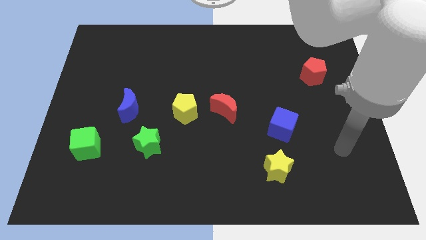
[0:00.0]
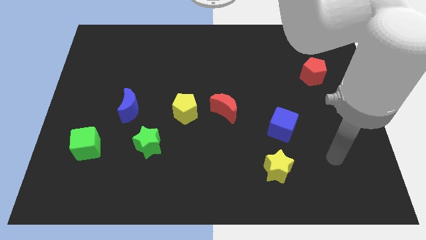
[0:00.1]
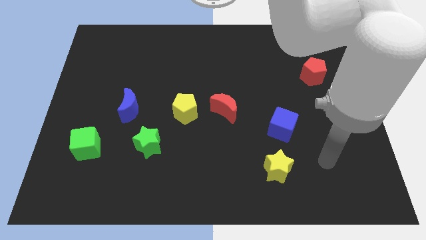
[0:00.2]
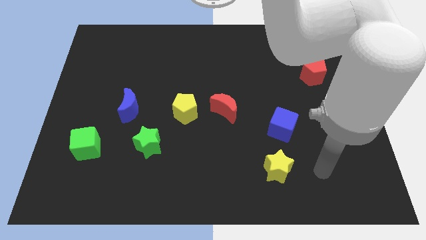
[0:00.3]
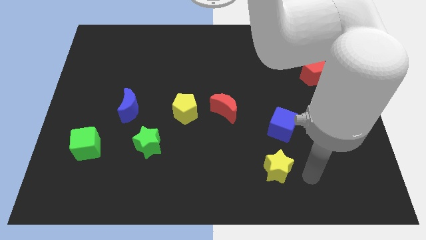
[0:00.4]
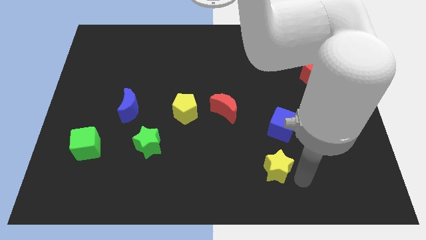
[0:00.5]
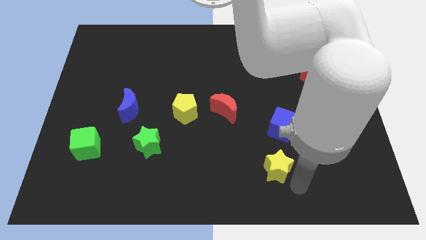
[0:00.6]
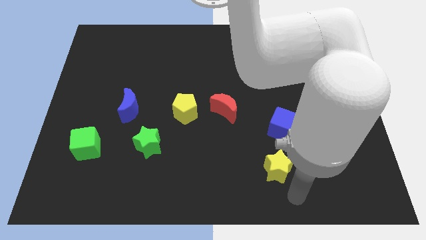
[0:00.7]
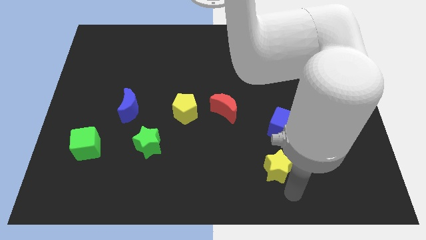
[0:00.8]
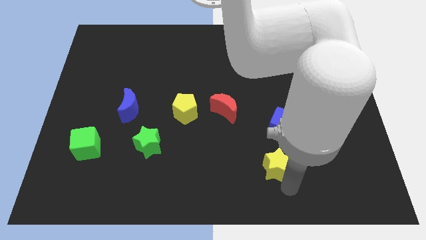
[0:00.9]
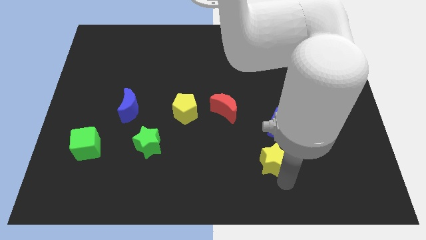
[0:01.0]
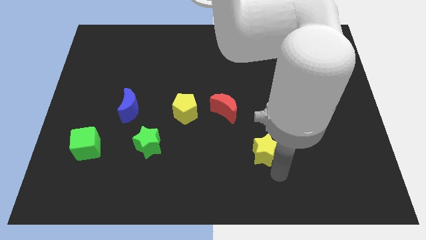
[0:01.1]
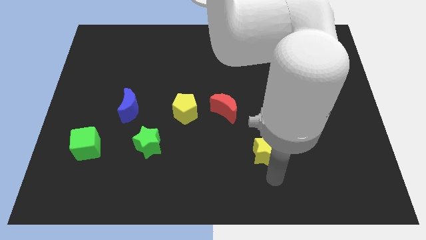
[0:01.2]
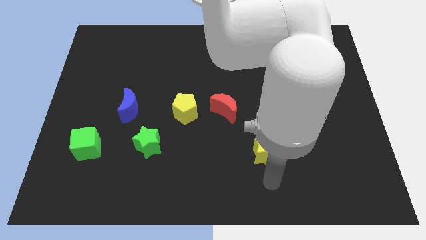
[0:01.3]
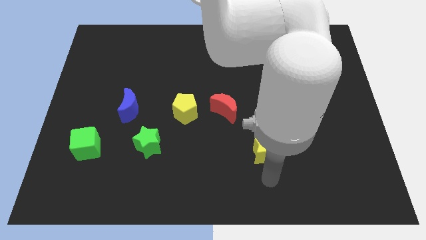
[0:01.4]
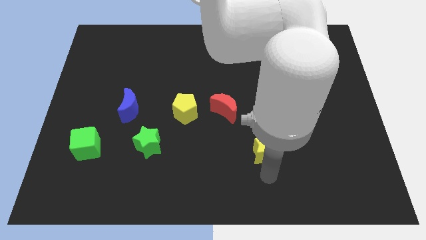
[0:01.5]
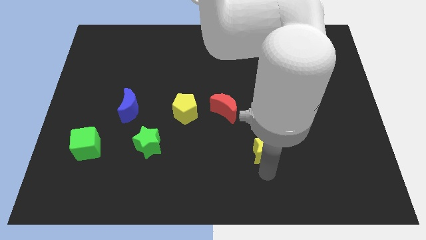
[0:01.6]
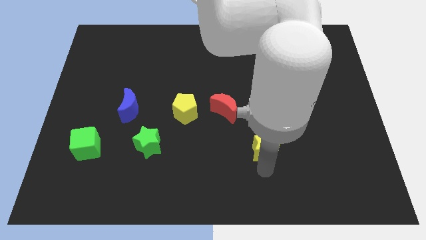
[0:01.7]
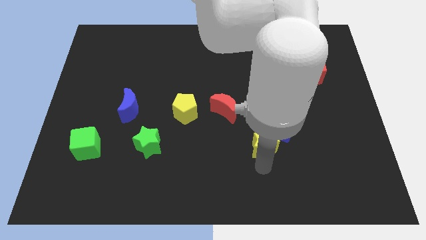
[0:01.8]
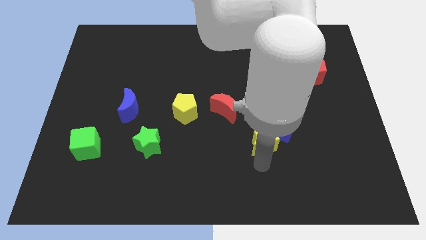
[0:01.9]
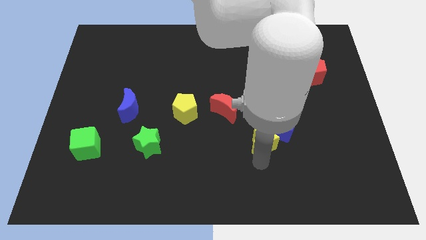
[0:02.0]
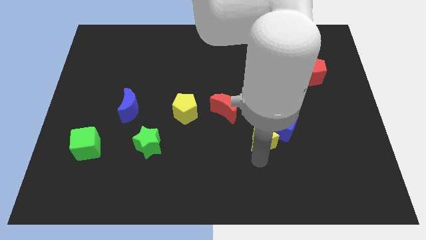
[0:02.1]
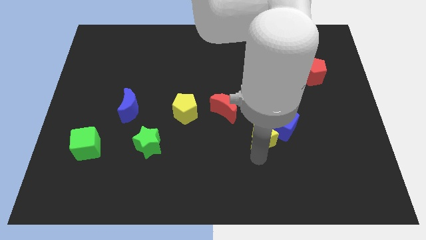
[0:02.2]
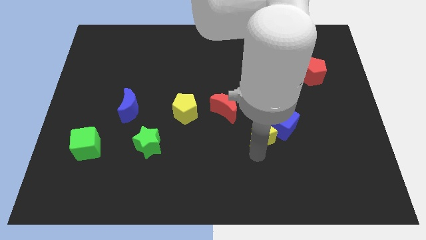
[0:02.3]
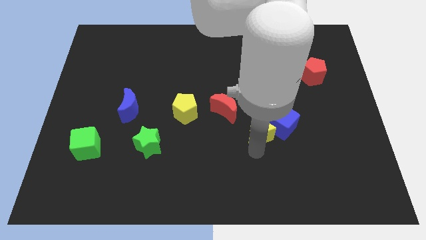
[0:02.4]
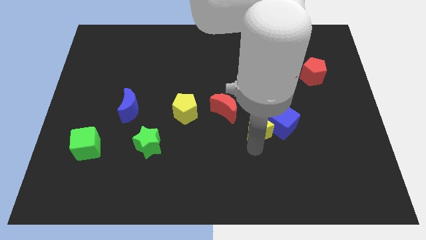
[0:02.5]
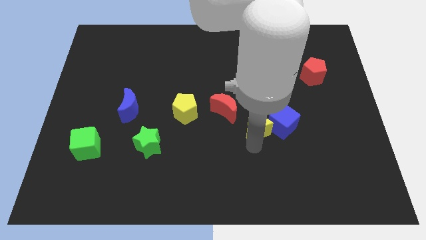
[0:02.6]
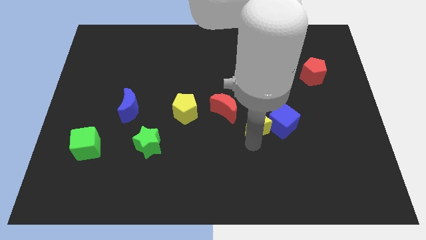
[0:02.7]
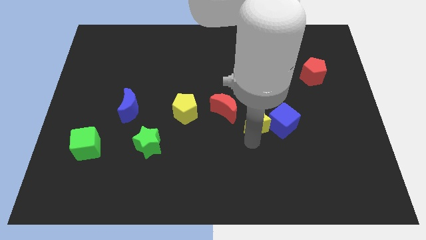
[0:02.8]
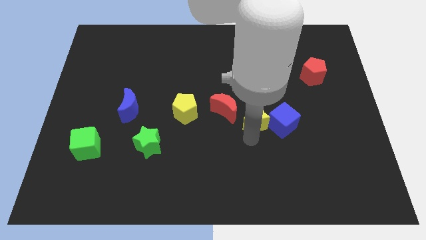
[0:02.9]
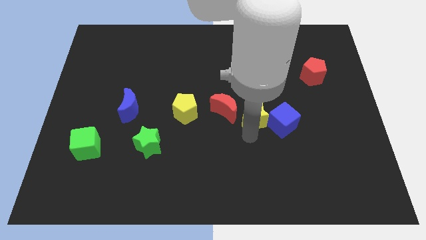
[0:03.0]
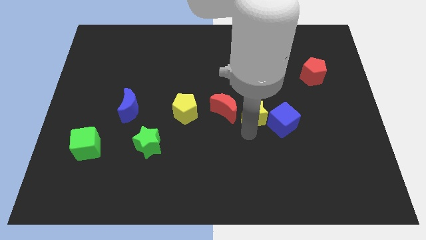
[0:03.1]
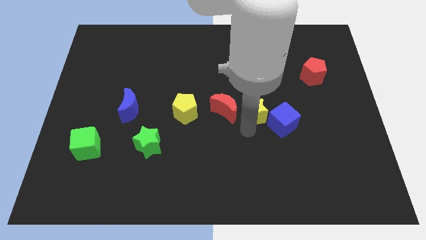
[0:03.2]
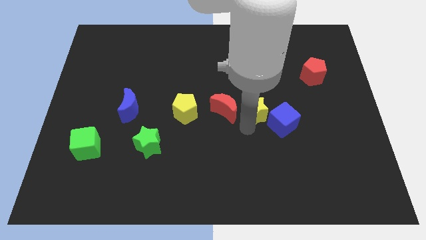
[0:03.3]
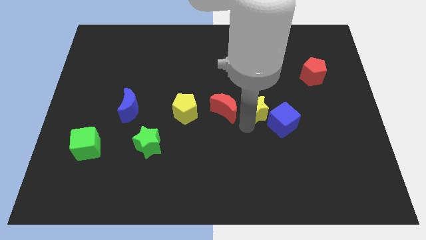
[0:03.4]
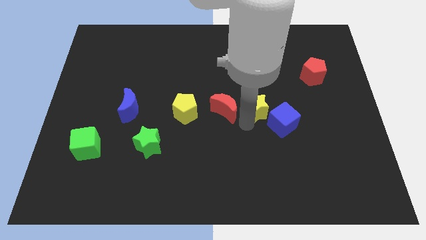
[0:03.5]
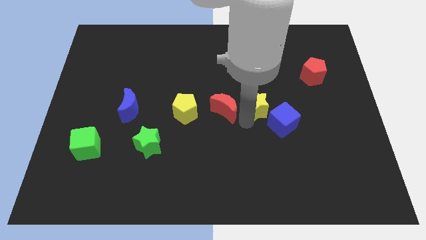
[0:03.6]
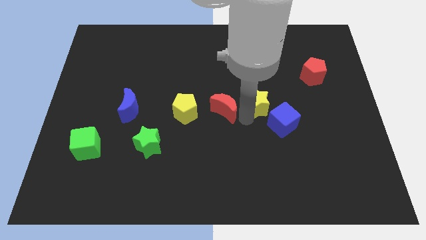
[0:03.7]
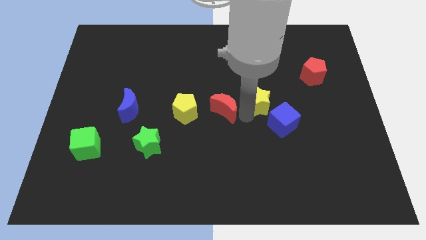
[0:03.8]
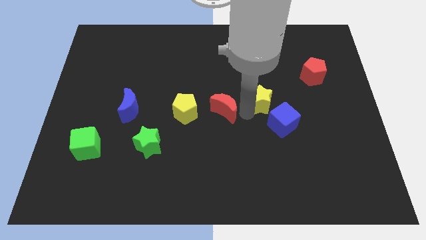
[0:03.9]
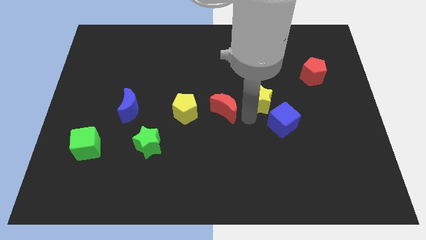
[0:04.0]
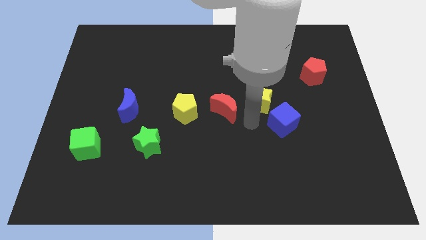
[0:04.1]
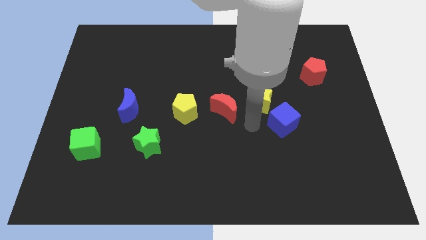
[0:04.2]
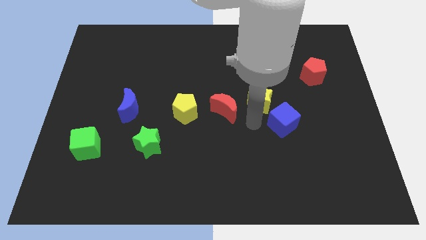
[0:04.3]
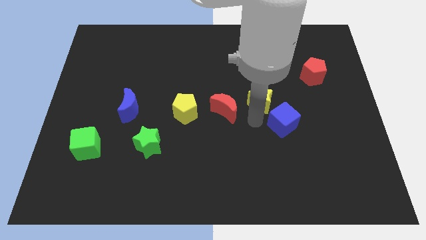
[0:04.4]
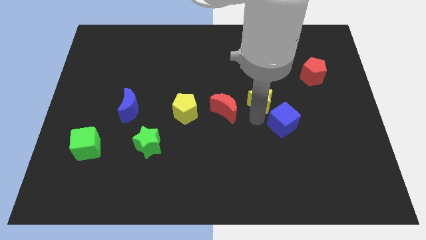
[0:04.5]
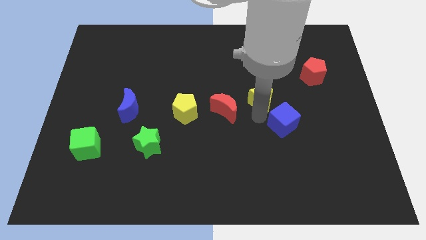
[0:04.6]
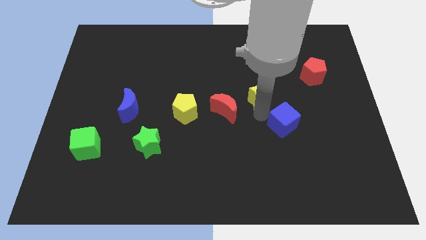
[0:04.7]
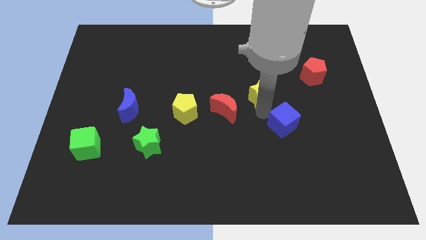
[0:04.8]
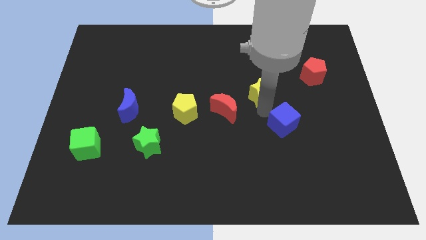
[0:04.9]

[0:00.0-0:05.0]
push the yellow star upwards

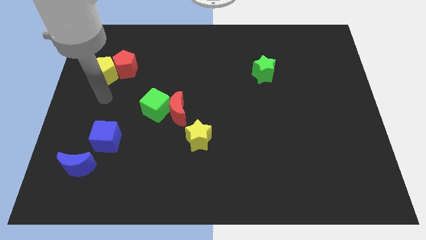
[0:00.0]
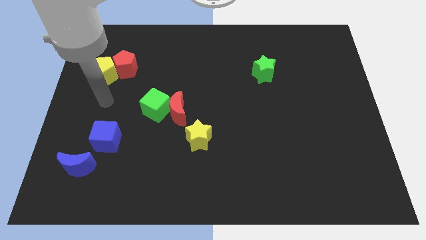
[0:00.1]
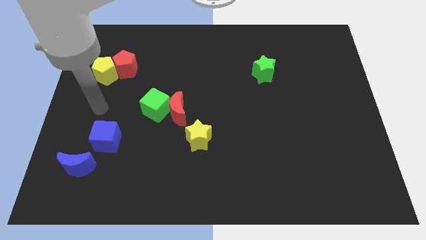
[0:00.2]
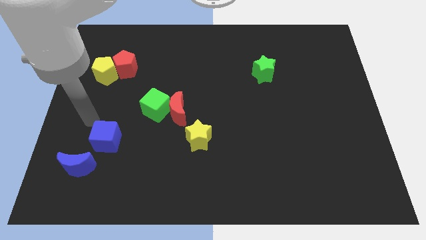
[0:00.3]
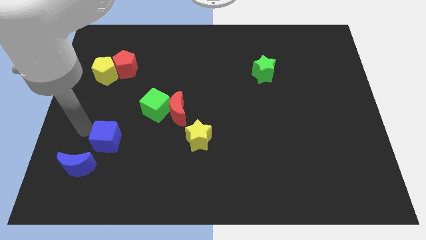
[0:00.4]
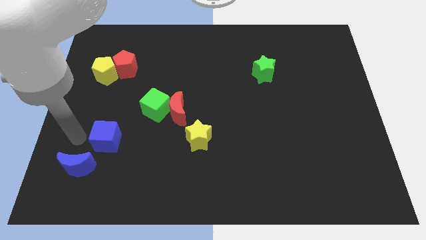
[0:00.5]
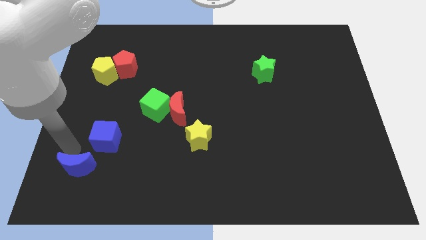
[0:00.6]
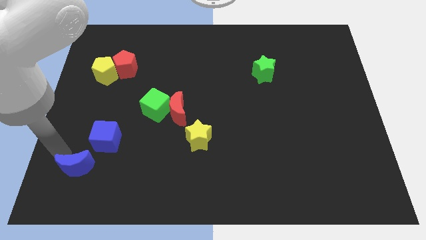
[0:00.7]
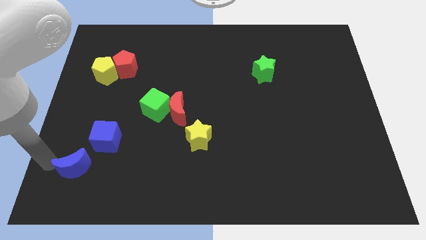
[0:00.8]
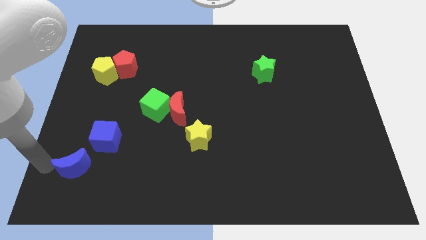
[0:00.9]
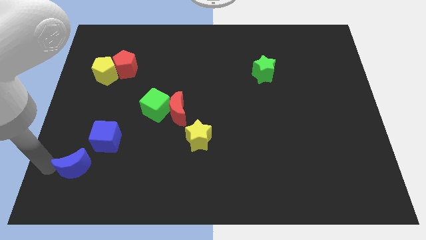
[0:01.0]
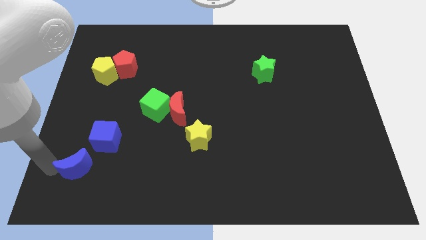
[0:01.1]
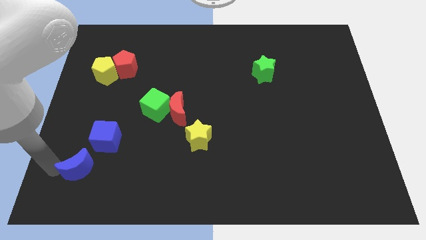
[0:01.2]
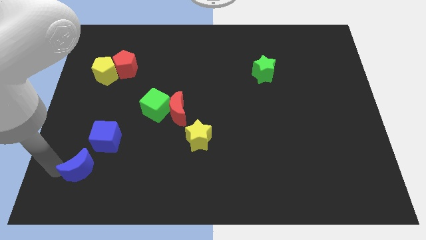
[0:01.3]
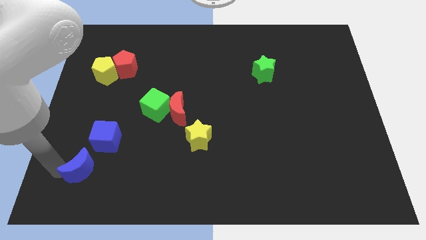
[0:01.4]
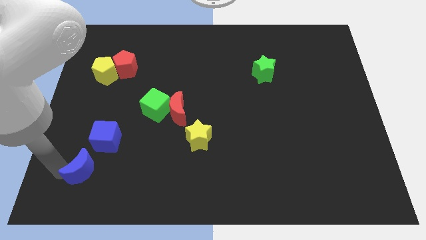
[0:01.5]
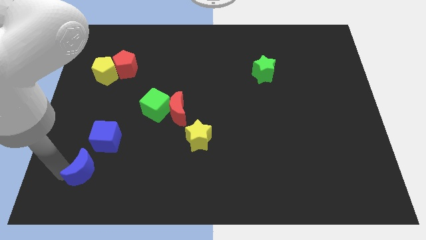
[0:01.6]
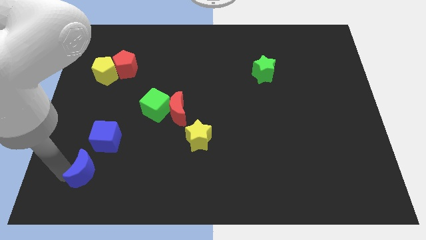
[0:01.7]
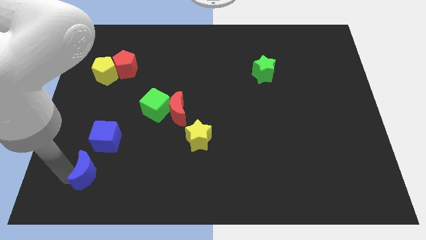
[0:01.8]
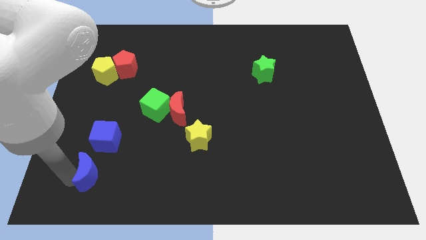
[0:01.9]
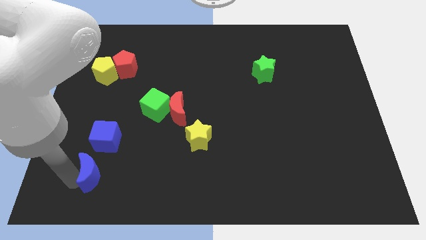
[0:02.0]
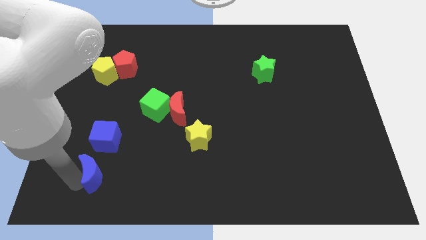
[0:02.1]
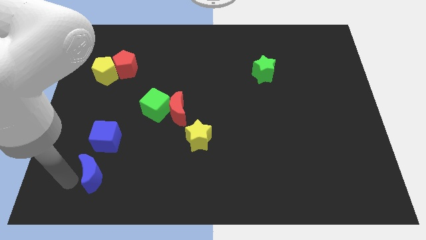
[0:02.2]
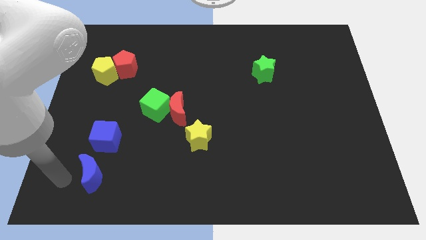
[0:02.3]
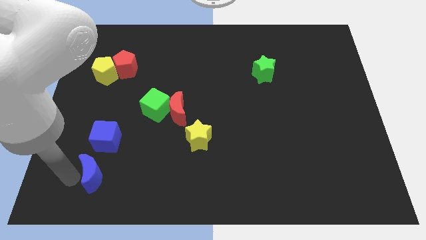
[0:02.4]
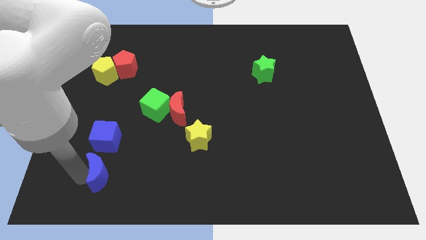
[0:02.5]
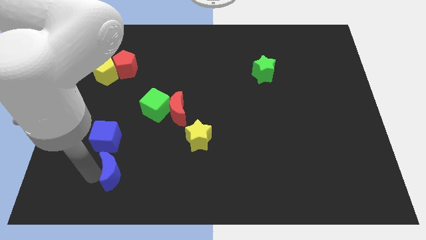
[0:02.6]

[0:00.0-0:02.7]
slide the blue moon somewhat right
